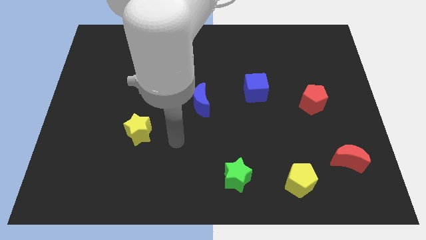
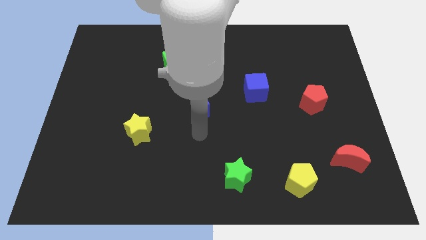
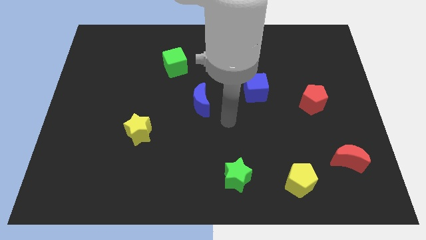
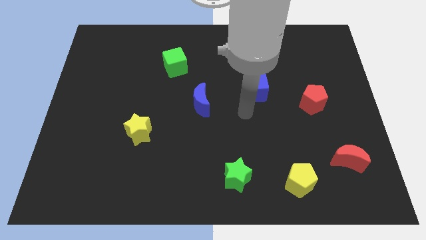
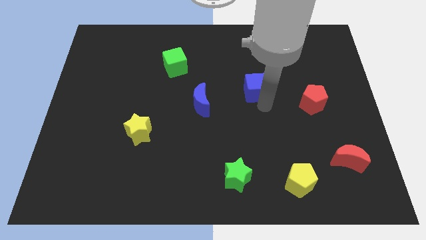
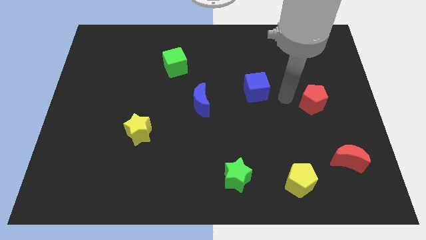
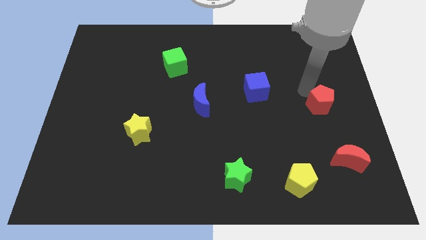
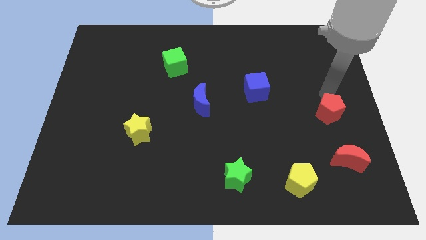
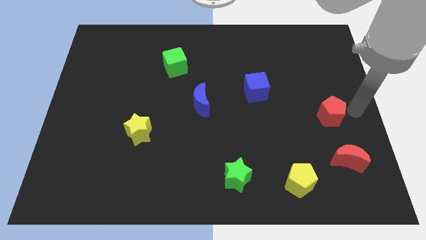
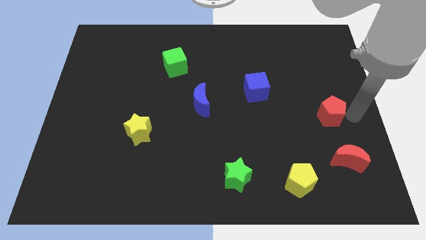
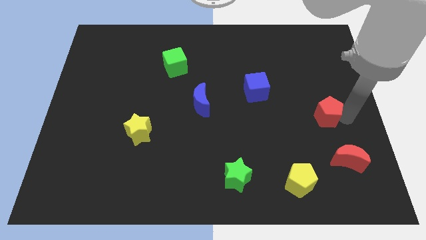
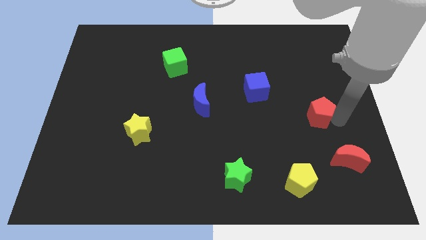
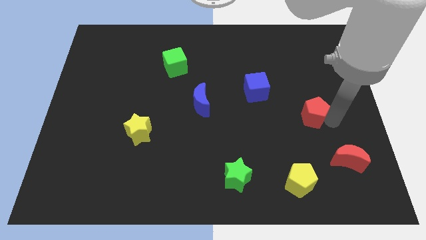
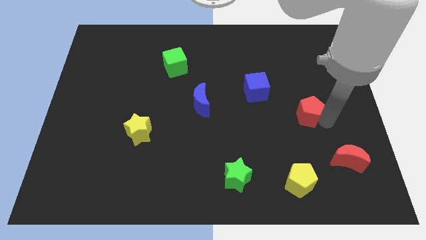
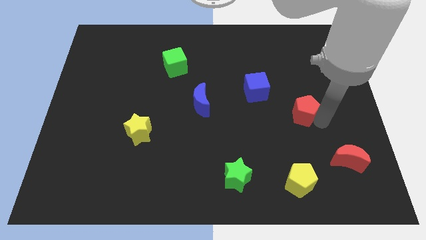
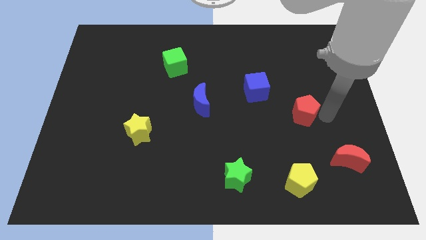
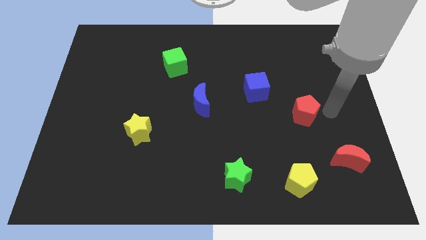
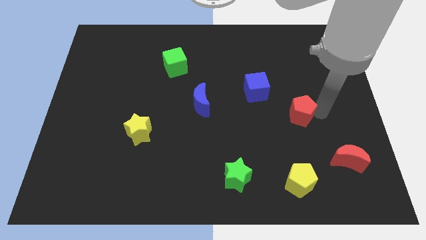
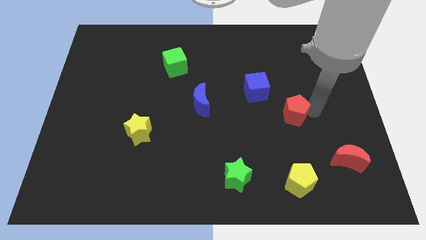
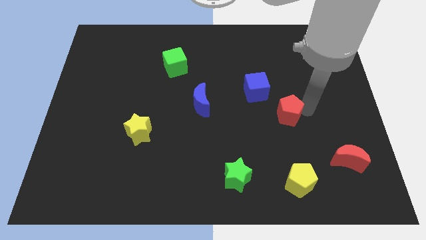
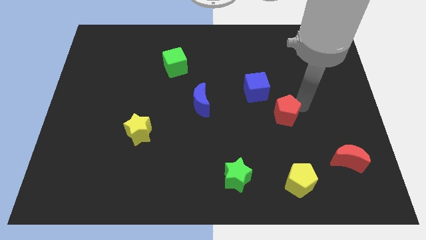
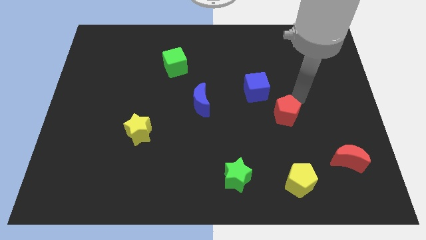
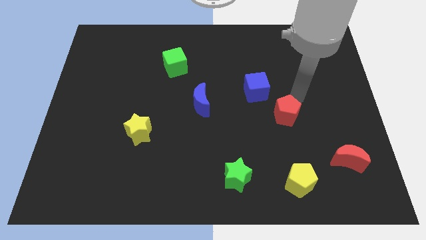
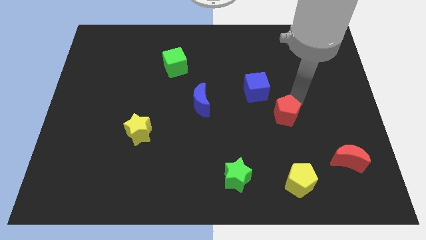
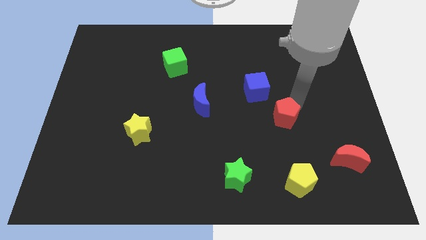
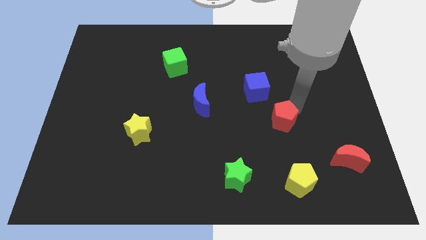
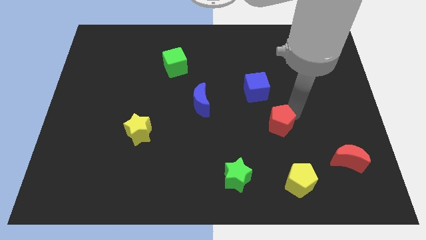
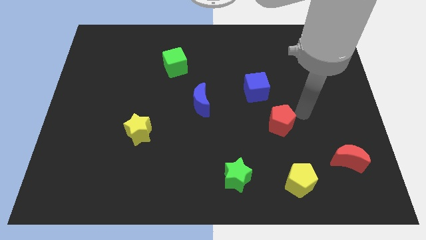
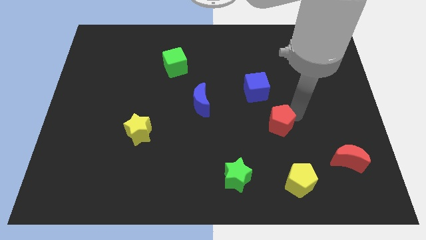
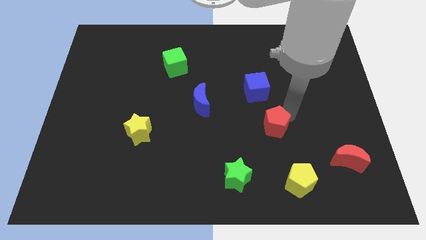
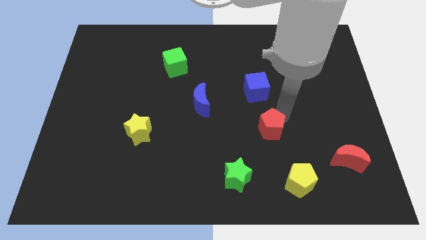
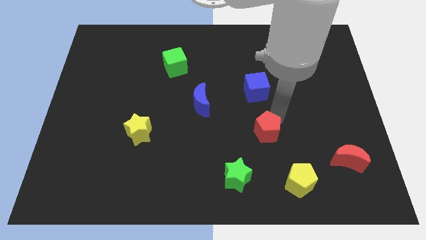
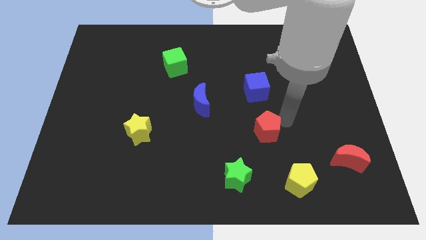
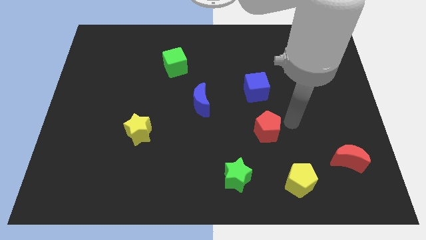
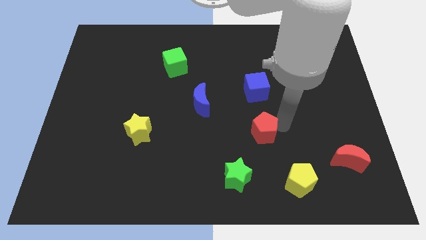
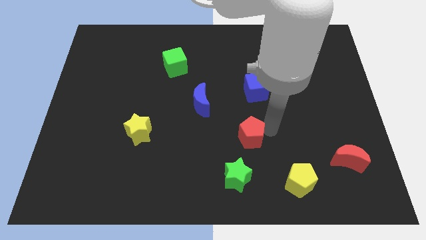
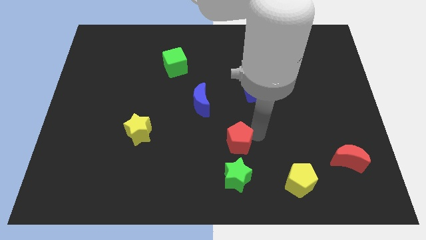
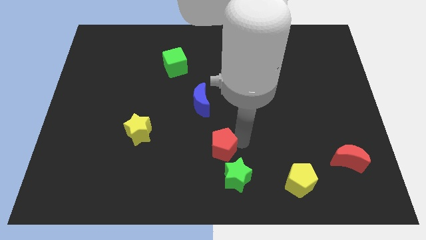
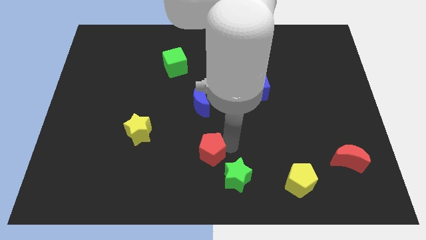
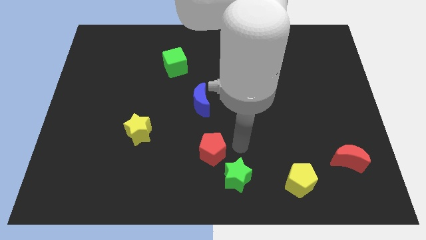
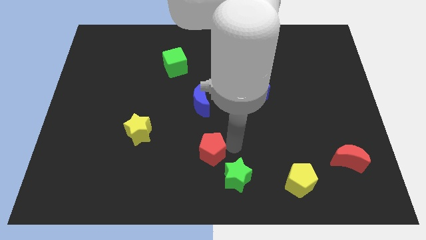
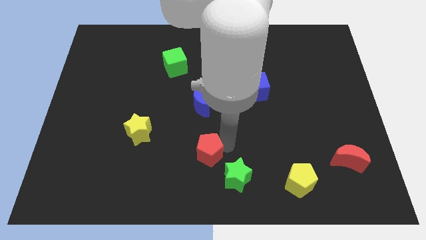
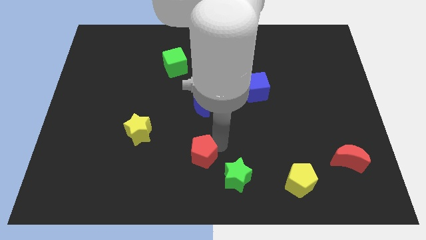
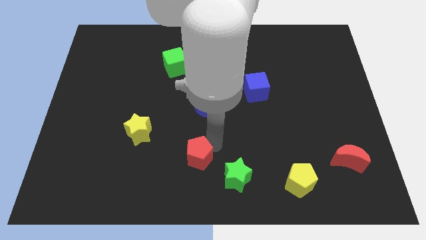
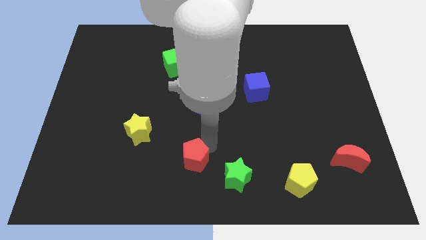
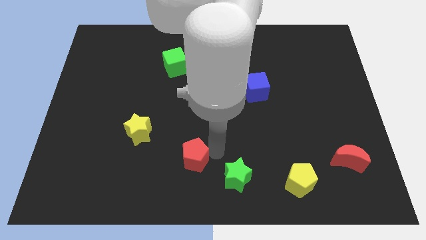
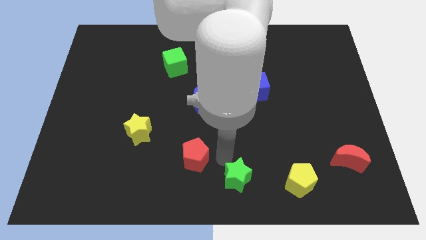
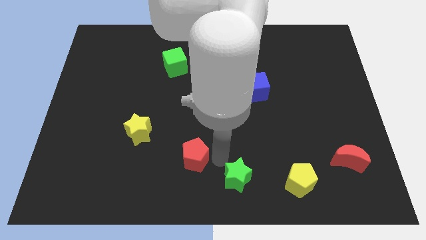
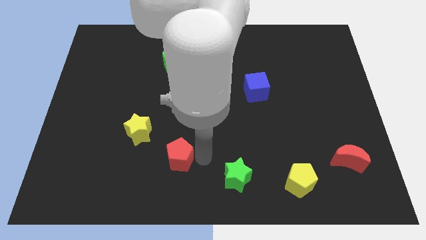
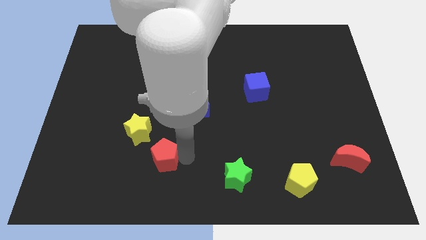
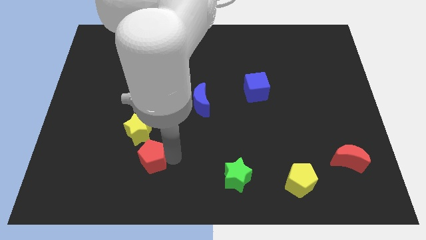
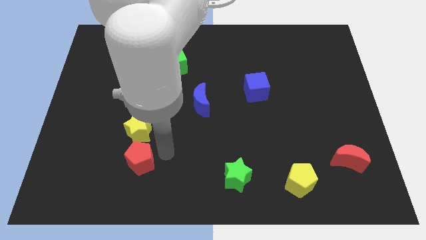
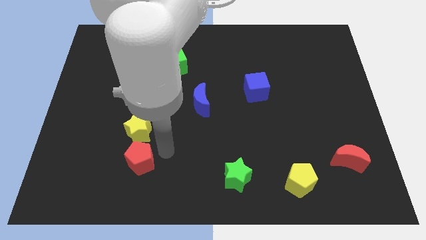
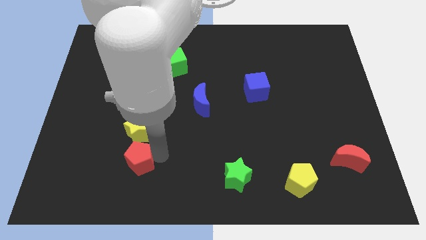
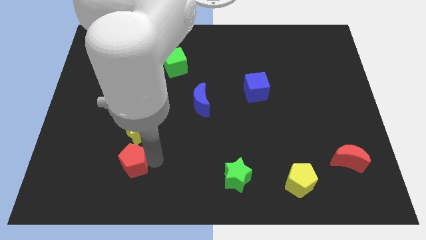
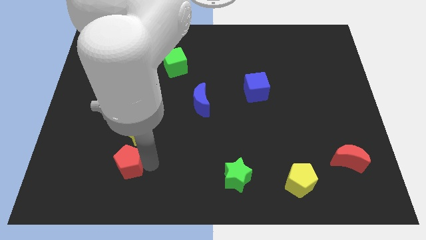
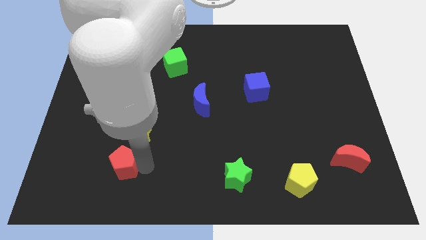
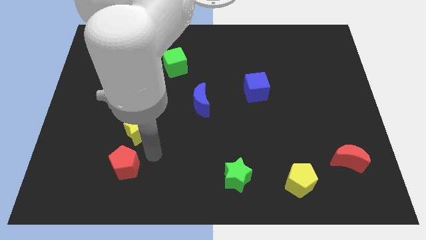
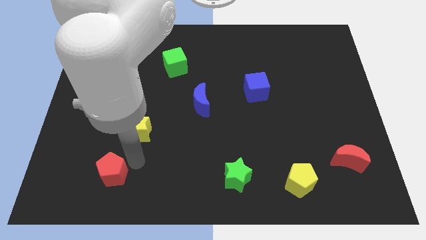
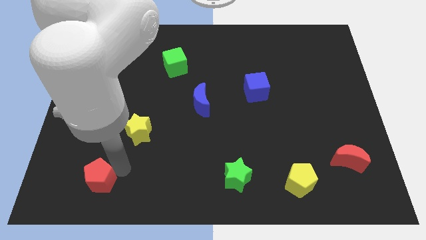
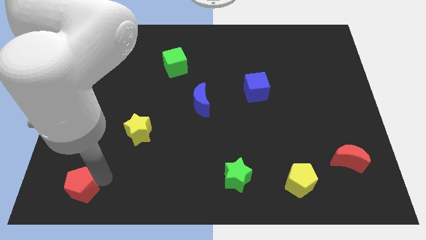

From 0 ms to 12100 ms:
put the red pentagon to the bottom left corner
